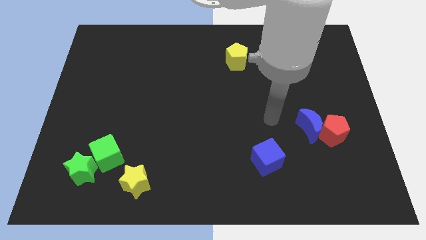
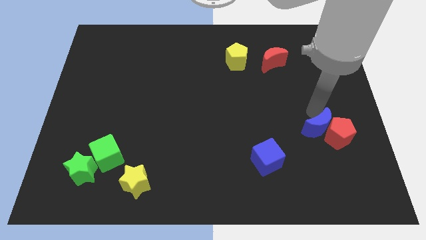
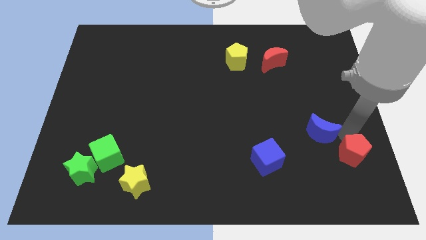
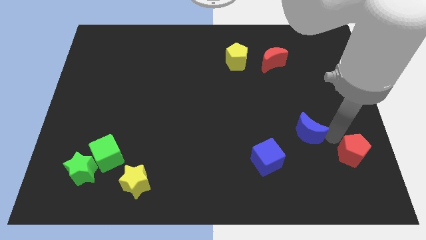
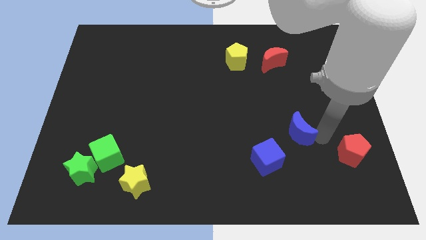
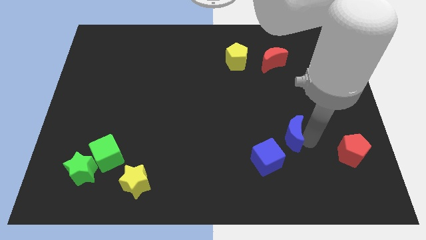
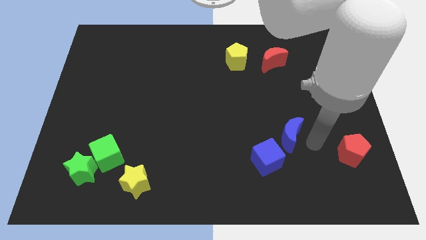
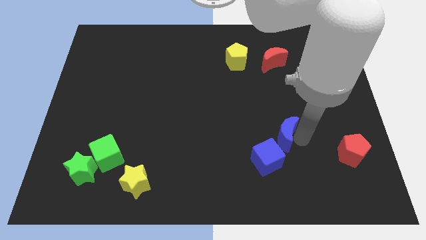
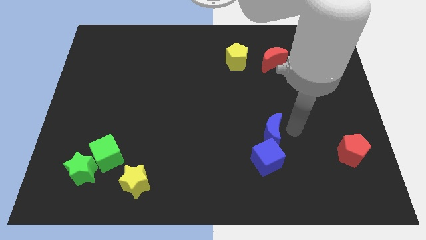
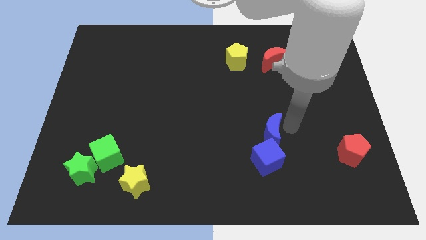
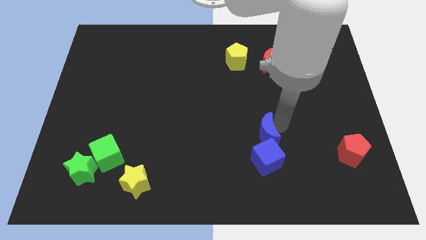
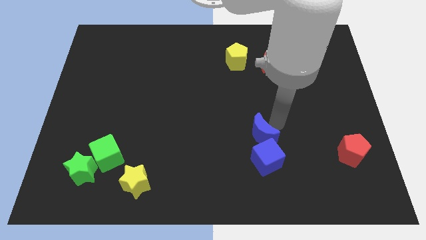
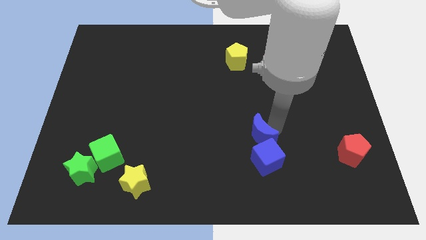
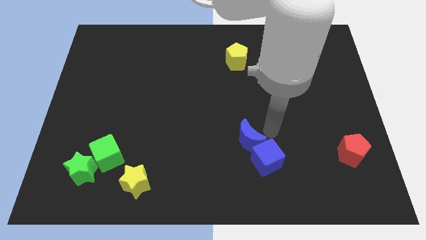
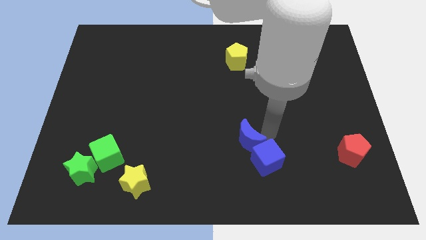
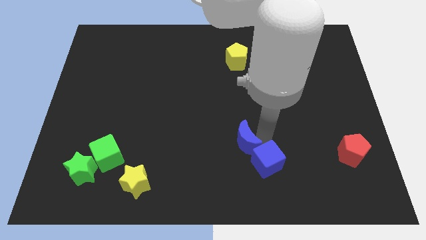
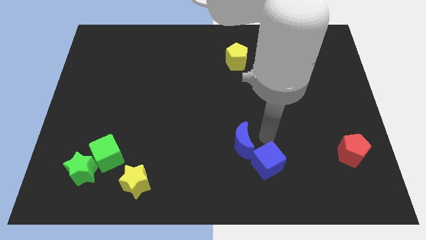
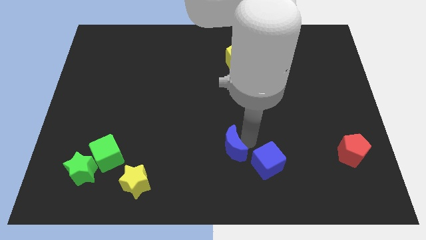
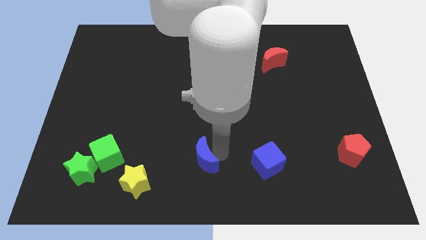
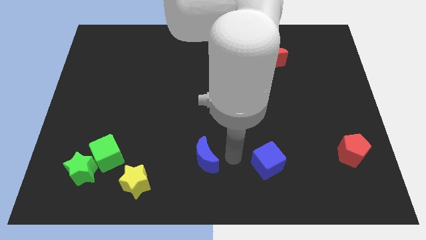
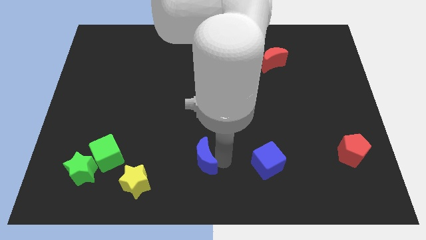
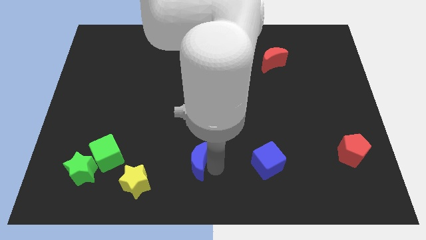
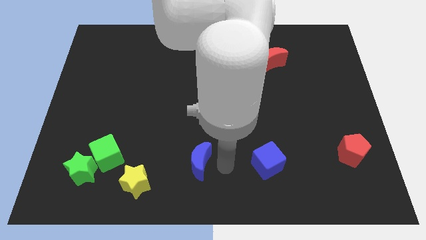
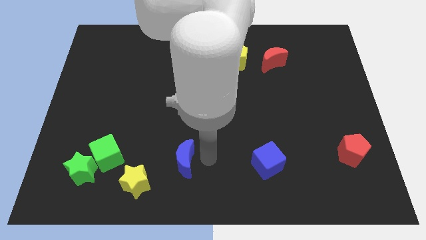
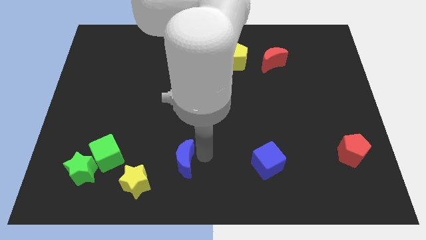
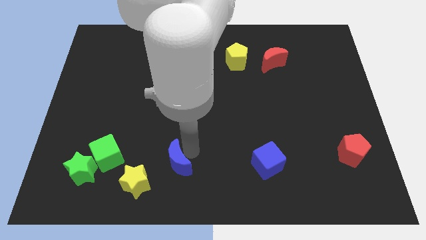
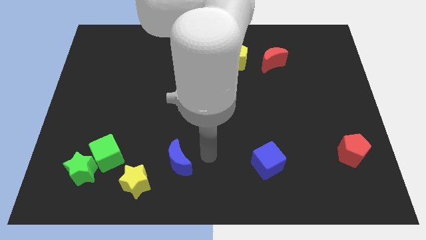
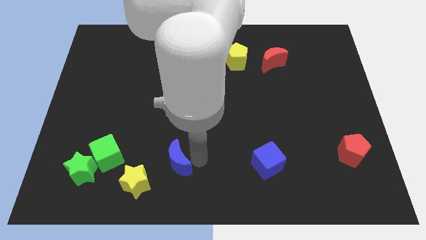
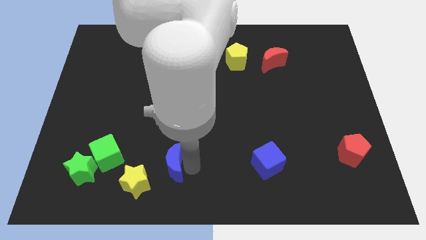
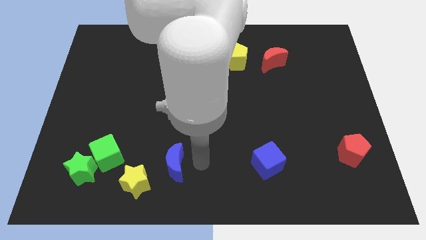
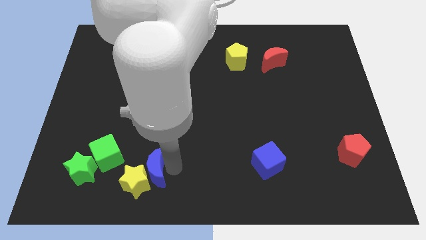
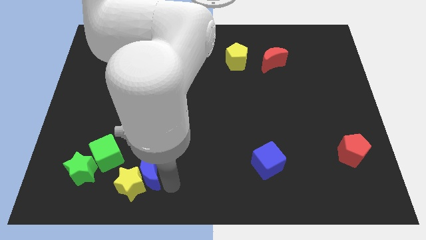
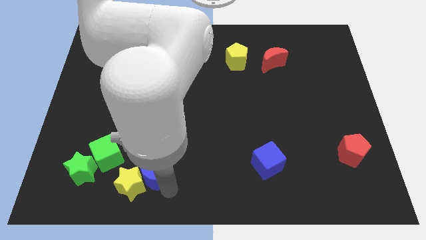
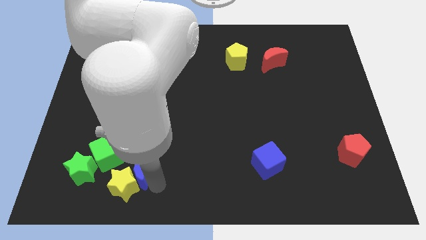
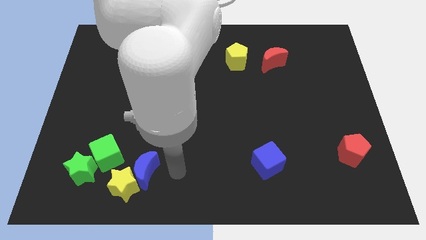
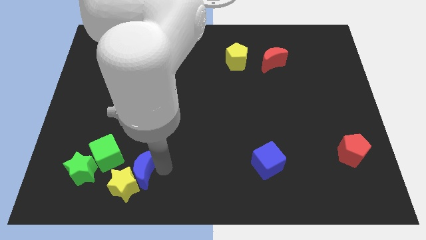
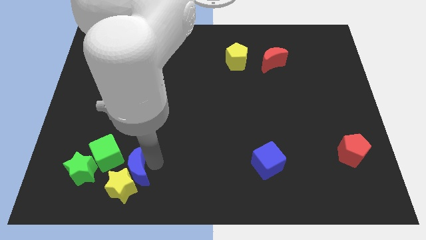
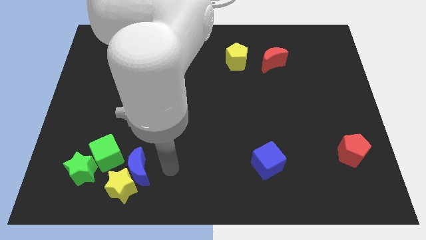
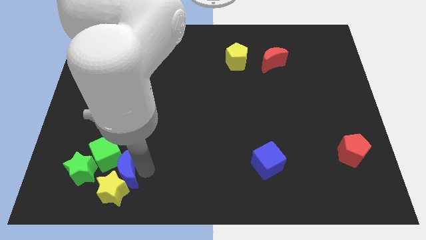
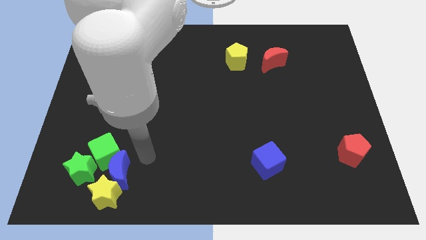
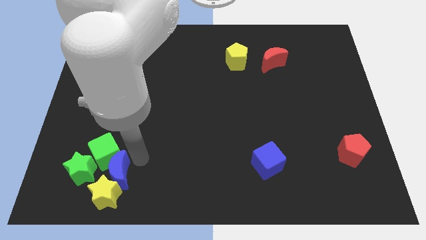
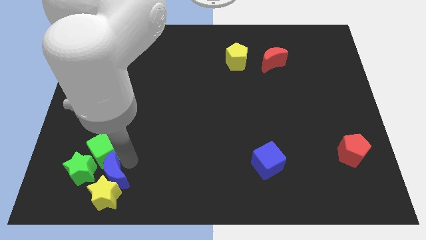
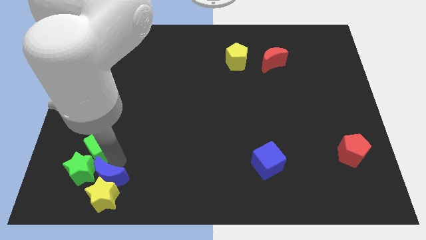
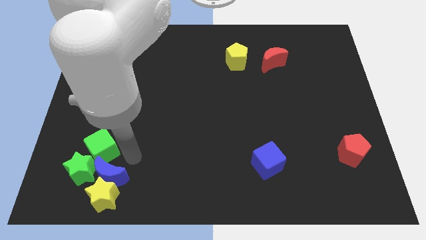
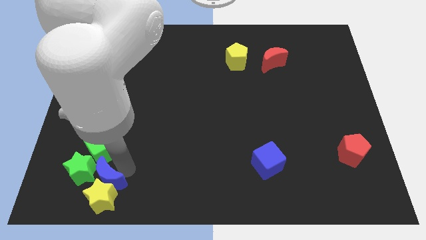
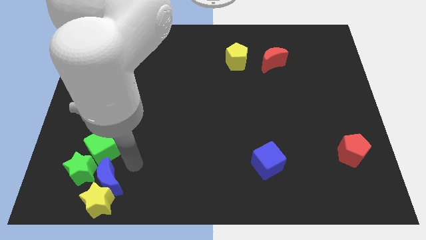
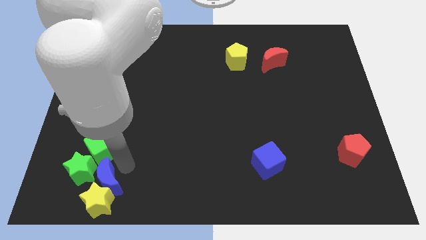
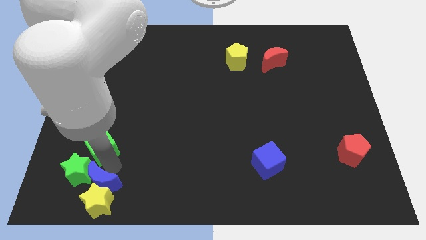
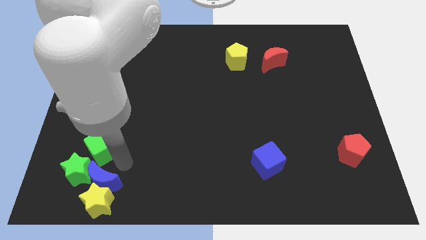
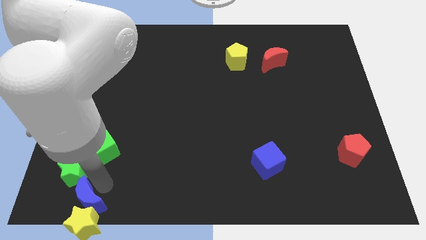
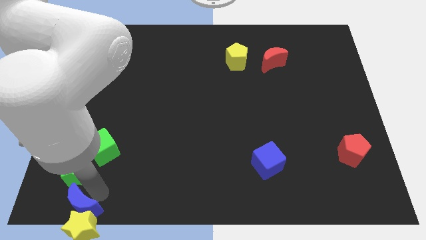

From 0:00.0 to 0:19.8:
slide the blue moon to the bottom left of the board

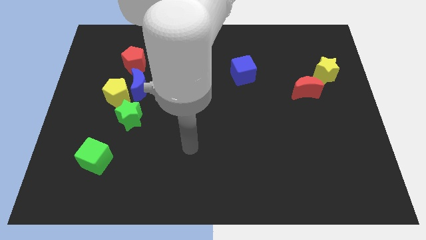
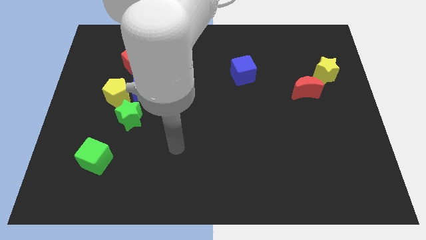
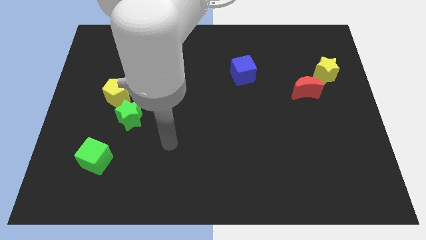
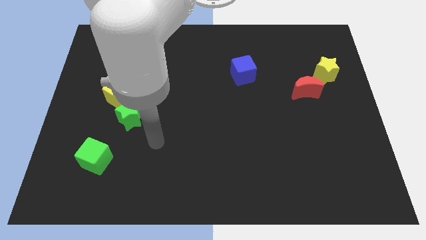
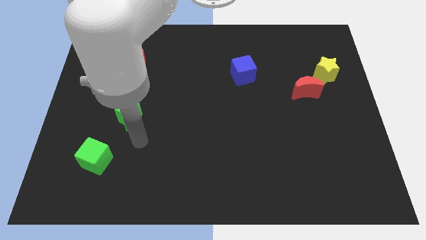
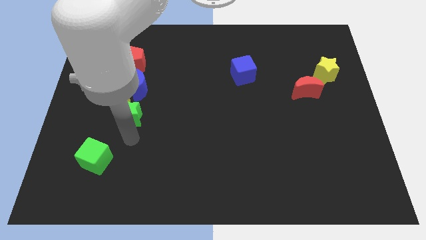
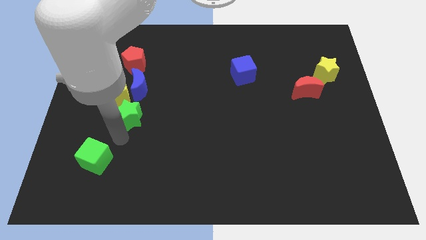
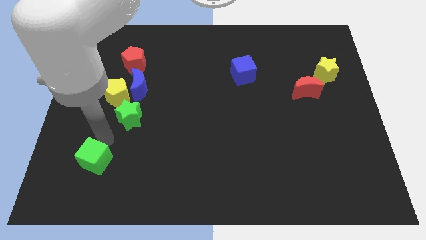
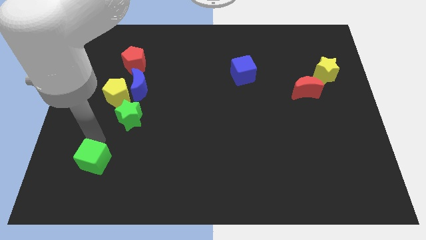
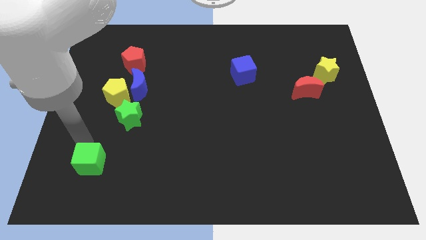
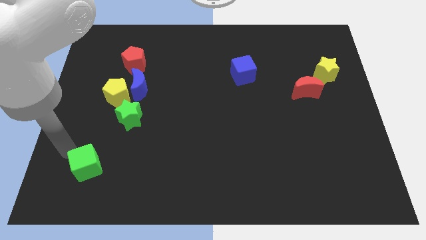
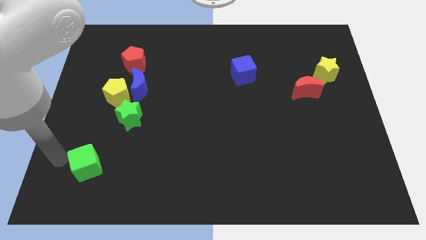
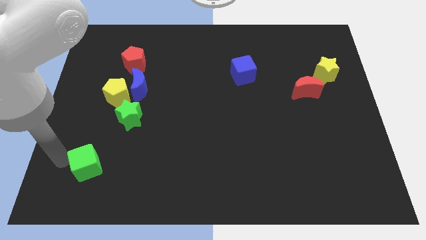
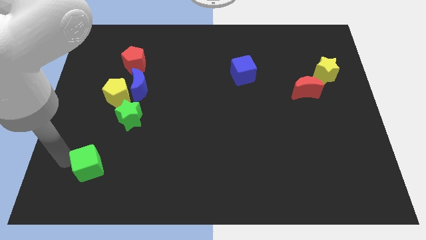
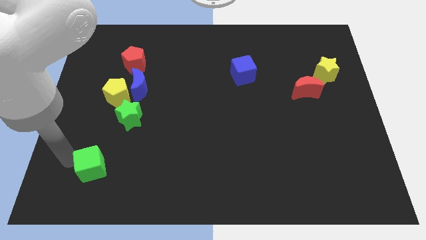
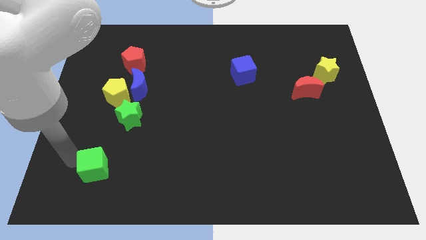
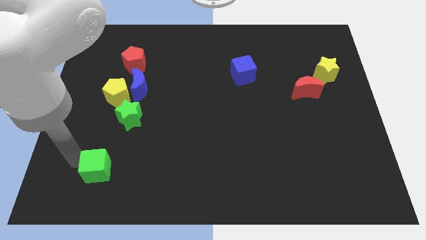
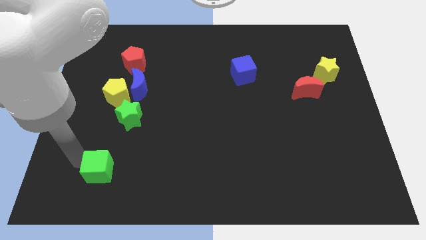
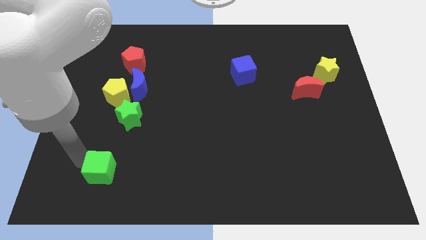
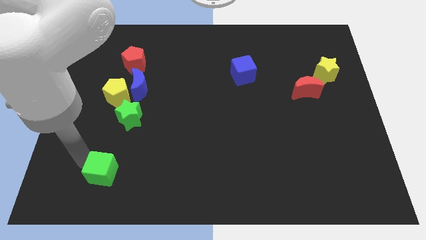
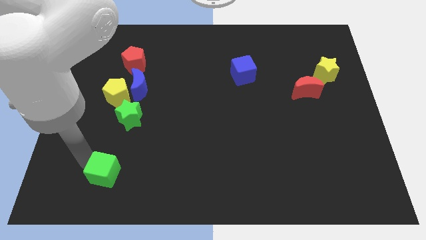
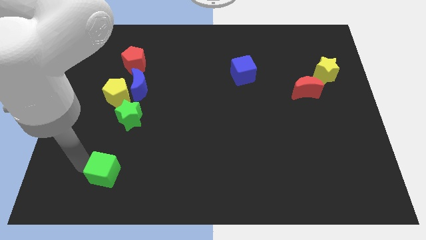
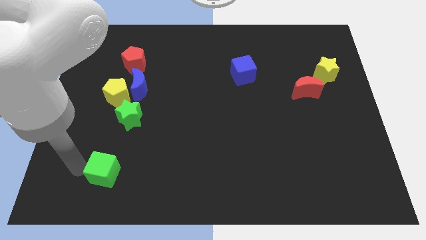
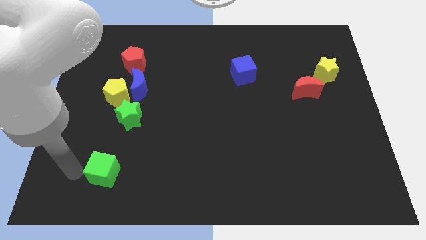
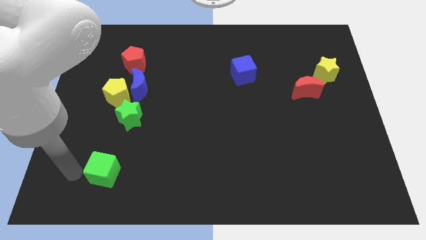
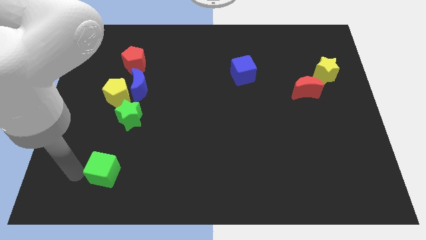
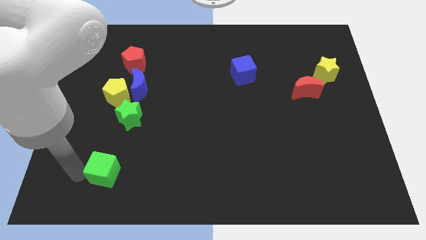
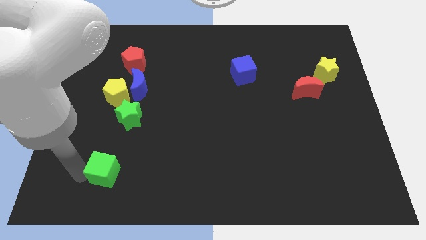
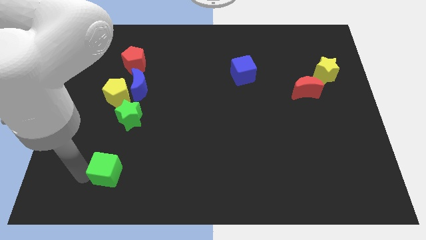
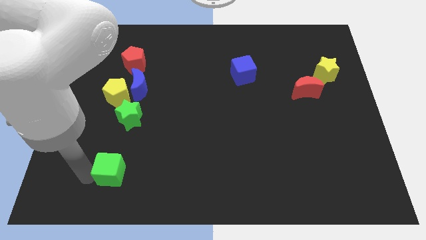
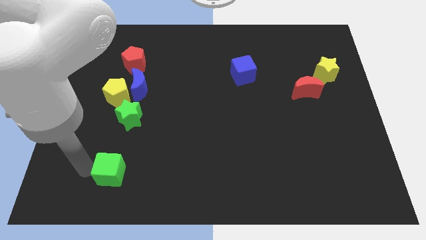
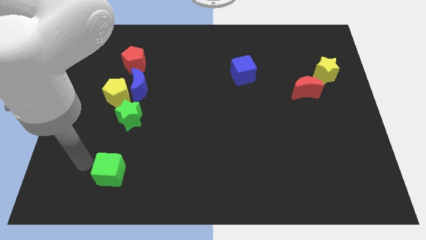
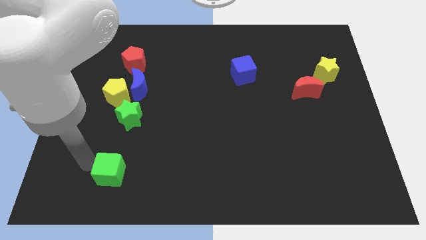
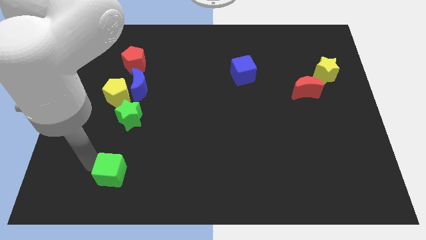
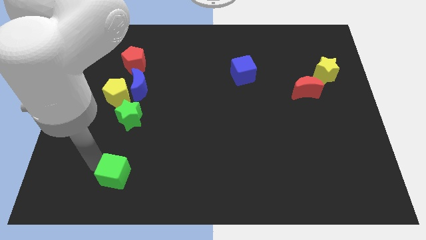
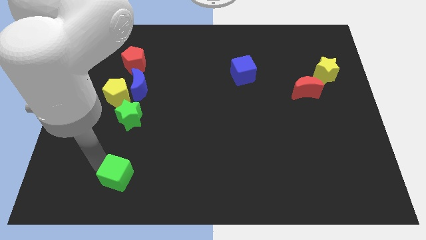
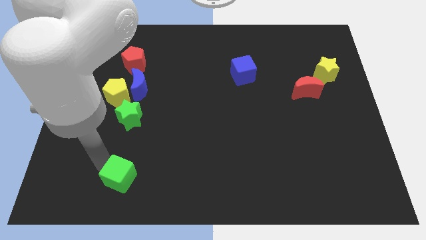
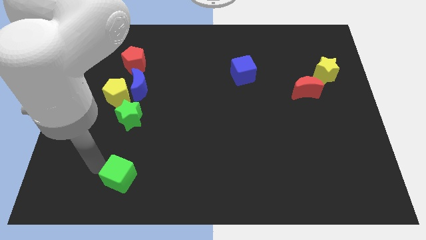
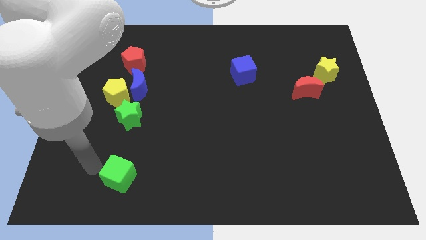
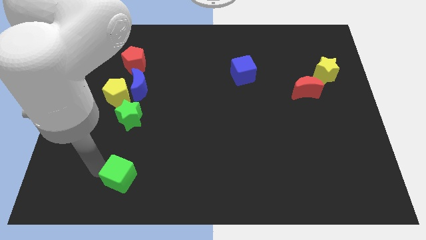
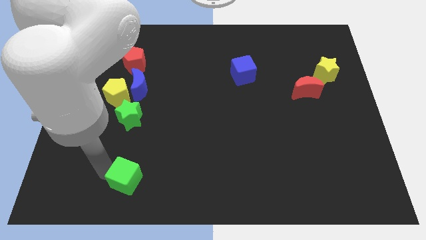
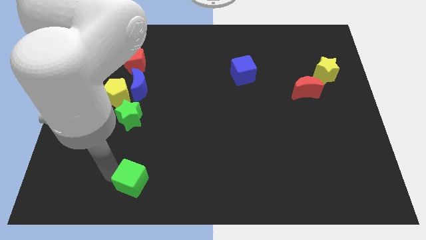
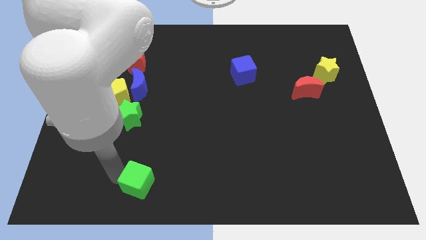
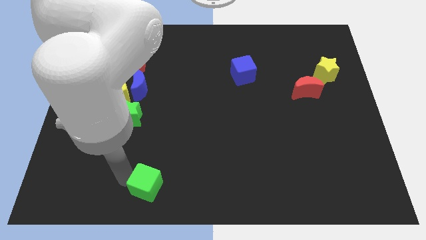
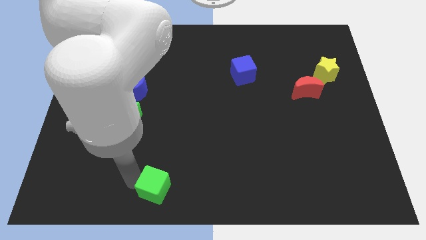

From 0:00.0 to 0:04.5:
put the green cube to the bottom
